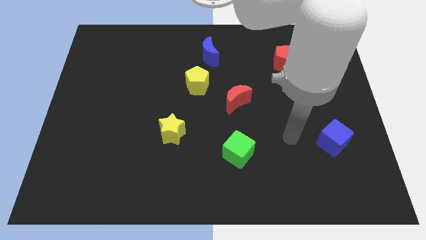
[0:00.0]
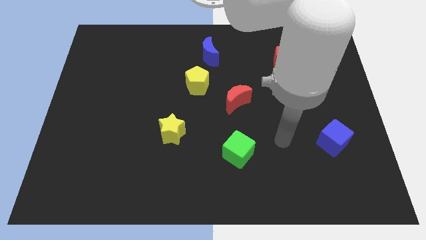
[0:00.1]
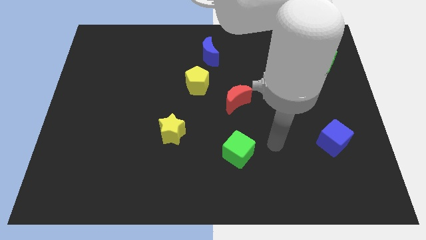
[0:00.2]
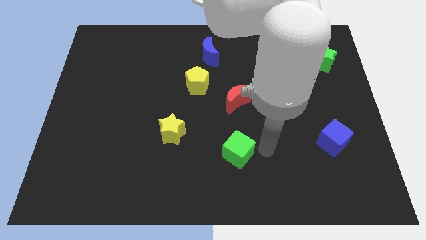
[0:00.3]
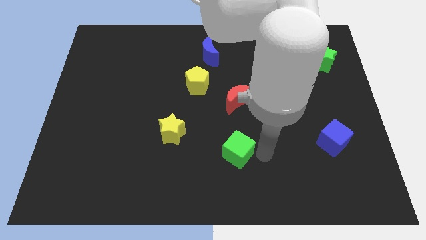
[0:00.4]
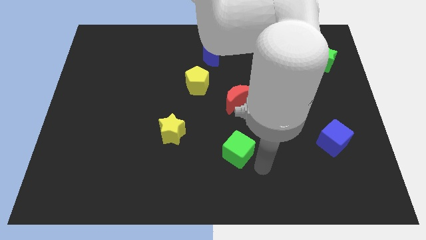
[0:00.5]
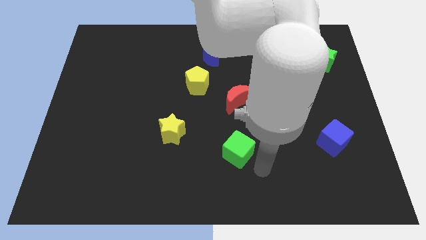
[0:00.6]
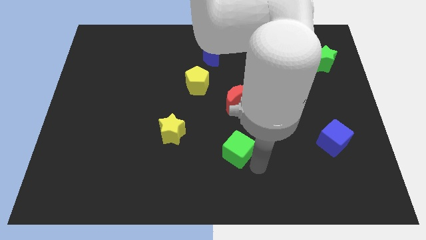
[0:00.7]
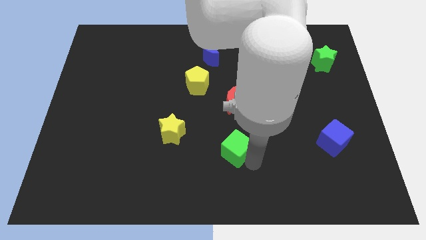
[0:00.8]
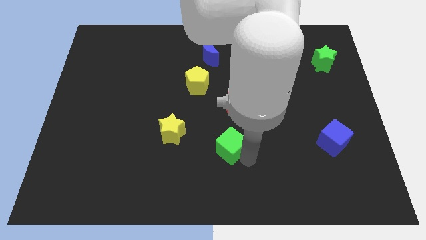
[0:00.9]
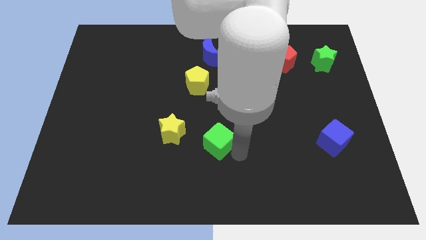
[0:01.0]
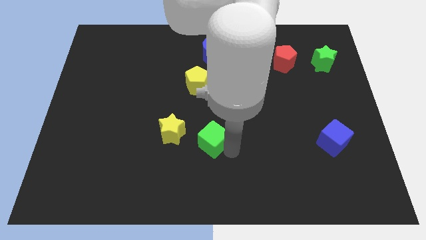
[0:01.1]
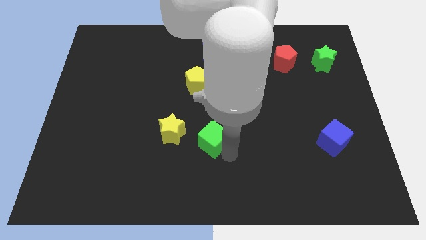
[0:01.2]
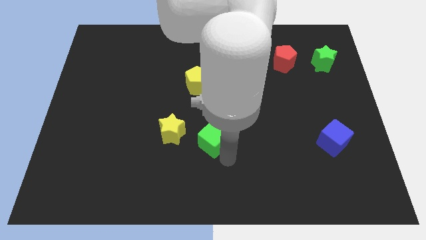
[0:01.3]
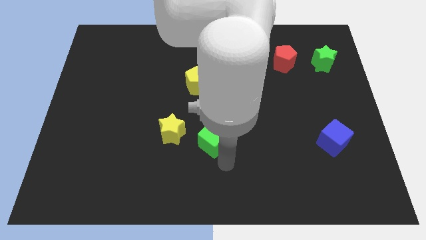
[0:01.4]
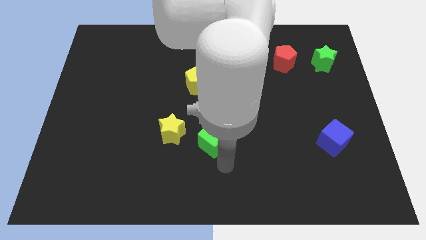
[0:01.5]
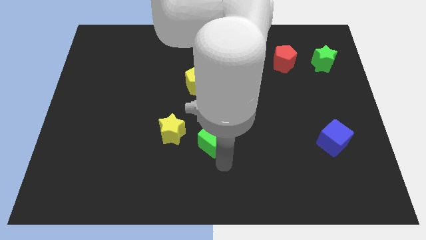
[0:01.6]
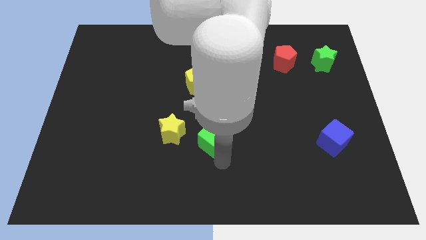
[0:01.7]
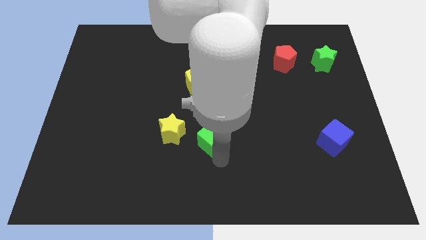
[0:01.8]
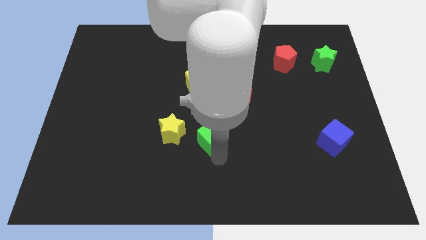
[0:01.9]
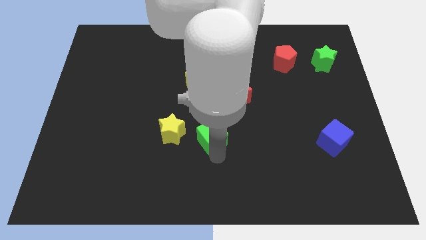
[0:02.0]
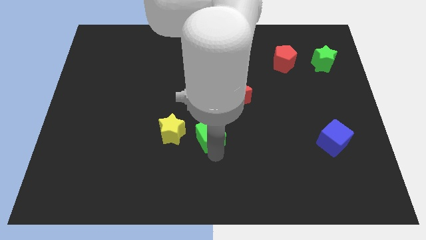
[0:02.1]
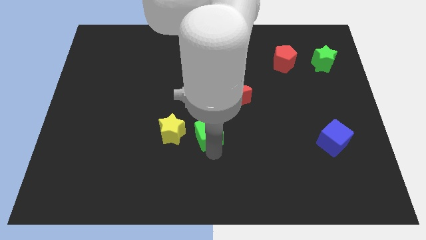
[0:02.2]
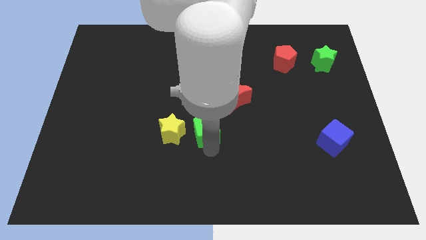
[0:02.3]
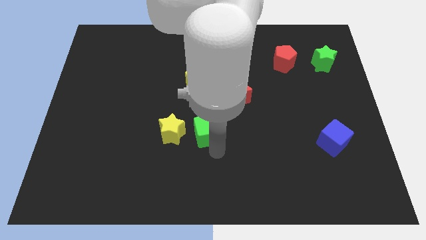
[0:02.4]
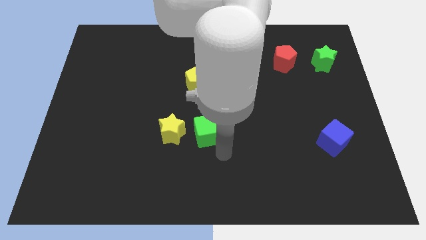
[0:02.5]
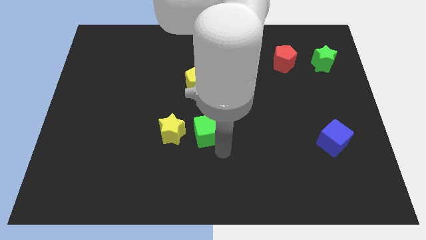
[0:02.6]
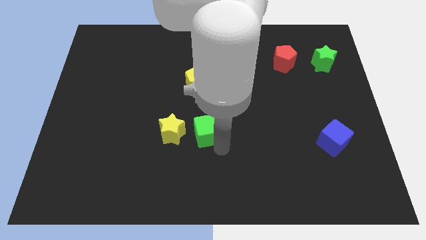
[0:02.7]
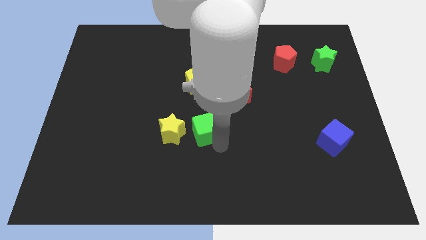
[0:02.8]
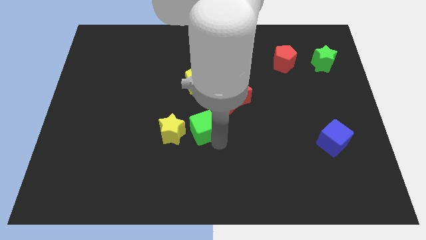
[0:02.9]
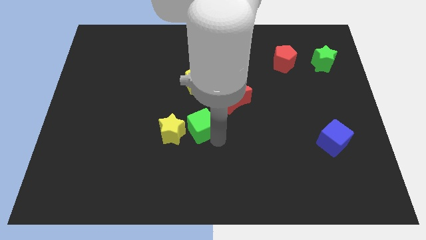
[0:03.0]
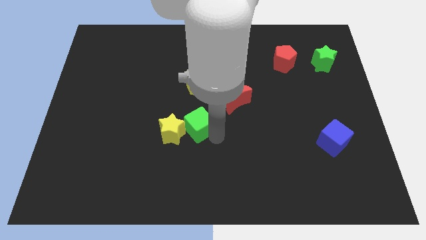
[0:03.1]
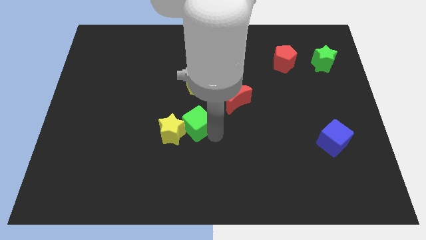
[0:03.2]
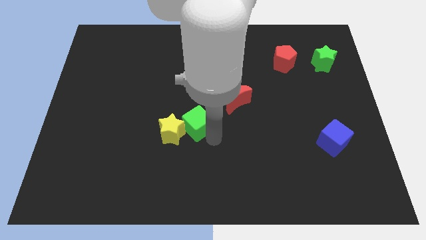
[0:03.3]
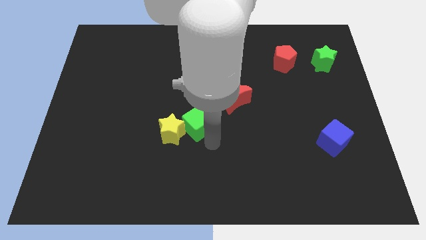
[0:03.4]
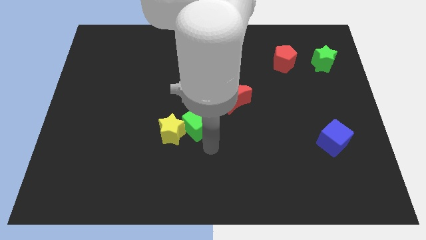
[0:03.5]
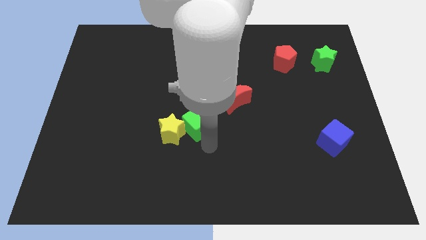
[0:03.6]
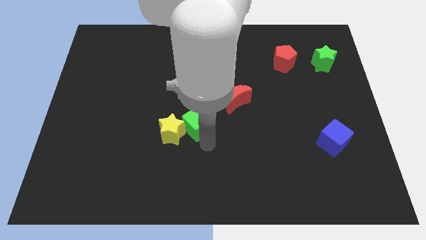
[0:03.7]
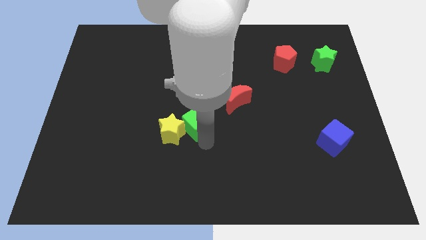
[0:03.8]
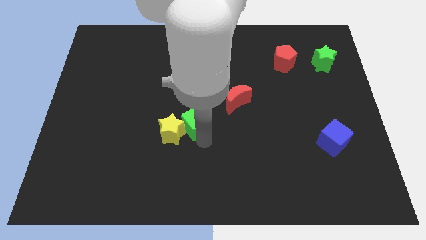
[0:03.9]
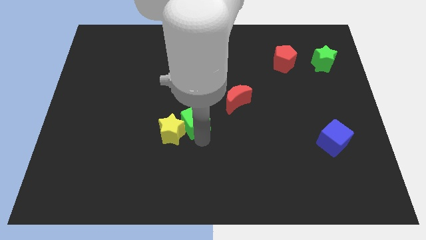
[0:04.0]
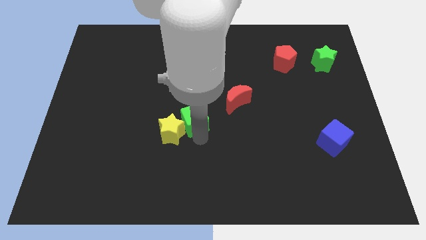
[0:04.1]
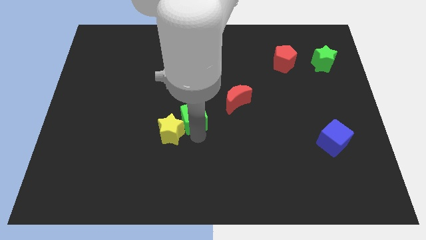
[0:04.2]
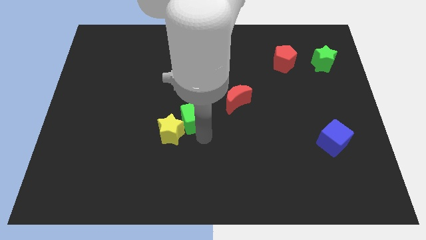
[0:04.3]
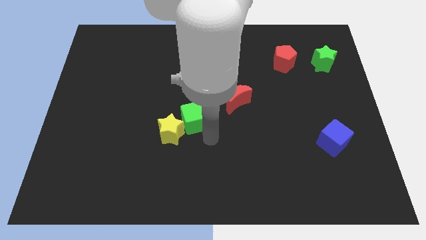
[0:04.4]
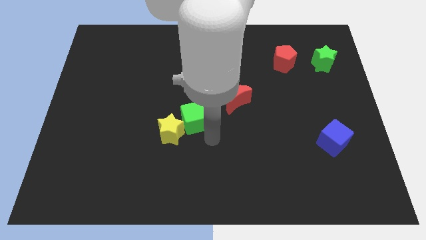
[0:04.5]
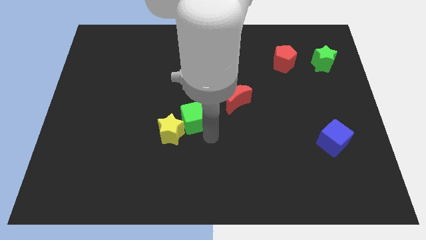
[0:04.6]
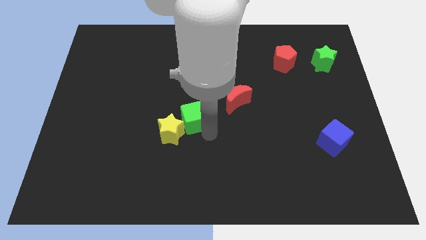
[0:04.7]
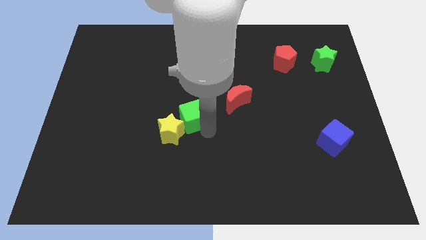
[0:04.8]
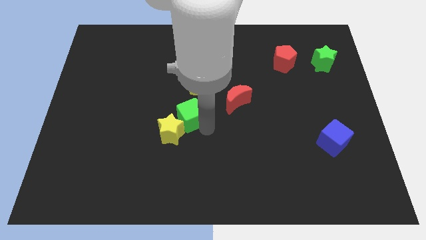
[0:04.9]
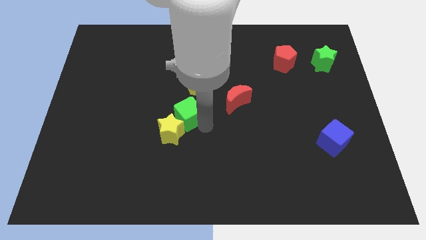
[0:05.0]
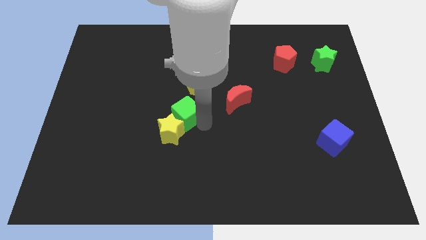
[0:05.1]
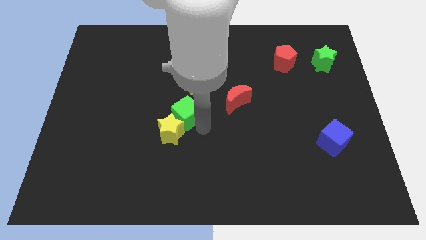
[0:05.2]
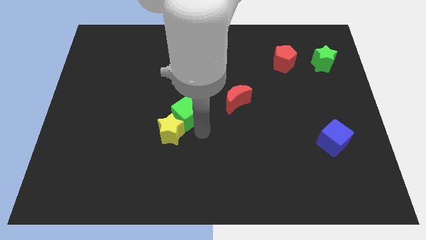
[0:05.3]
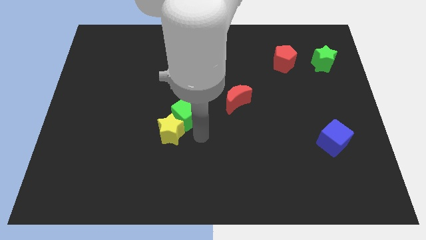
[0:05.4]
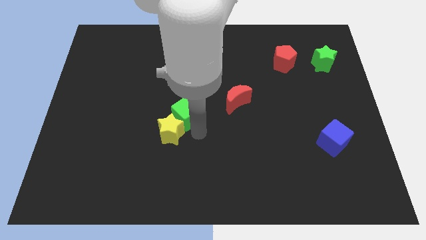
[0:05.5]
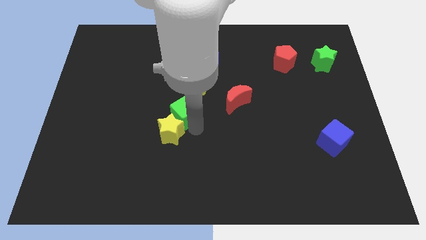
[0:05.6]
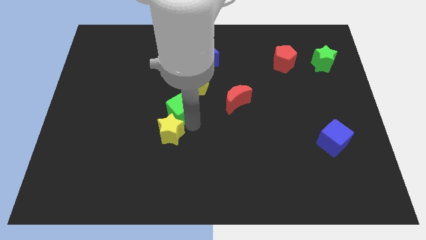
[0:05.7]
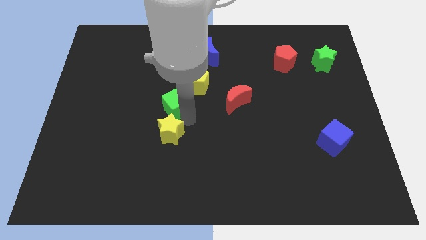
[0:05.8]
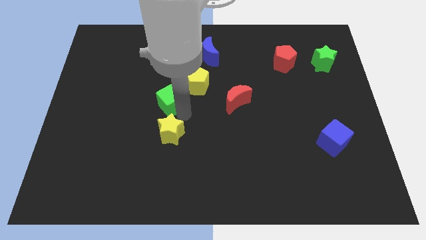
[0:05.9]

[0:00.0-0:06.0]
push the green cube upwards and left diagonally

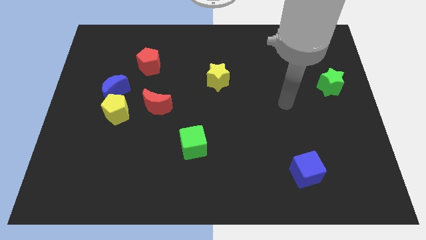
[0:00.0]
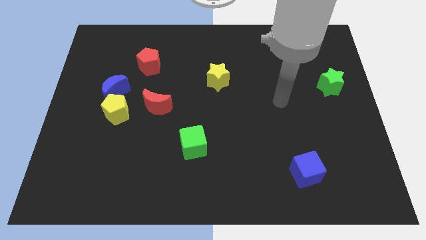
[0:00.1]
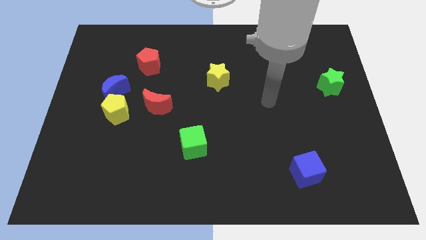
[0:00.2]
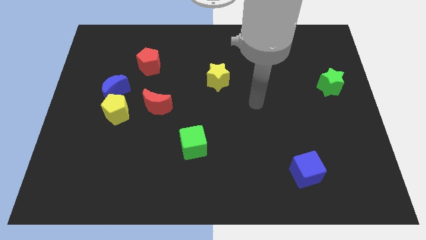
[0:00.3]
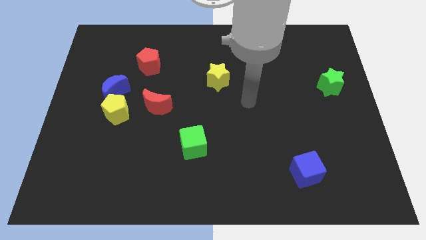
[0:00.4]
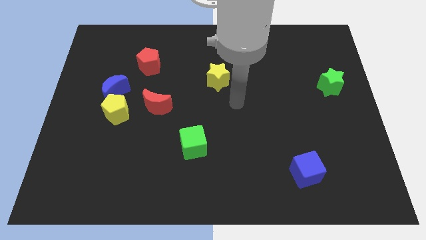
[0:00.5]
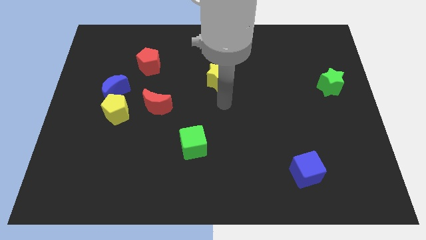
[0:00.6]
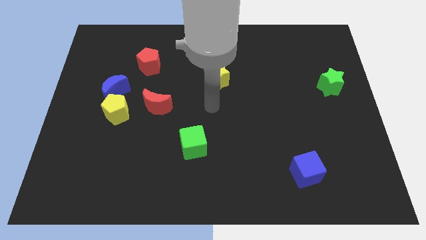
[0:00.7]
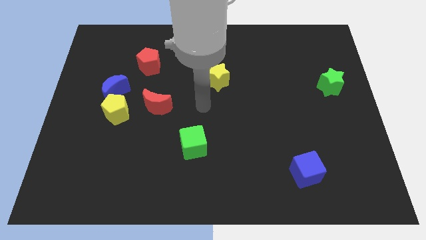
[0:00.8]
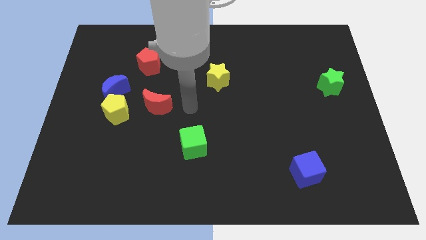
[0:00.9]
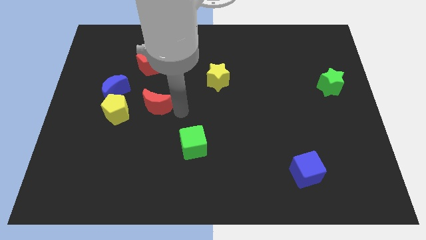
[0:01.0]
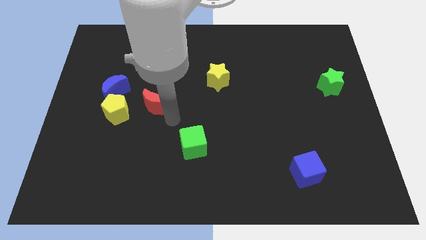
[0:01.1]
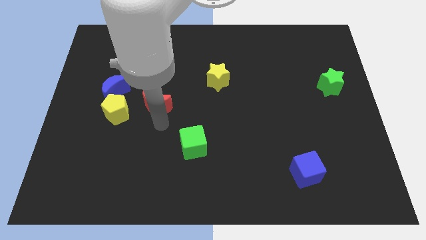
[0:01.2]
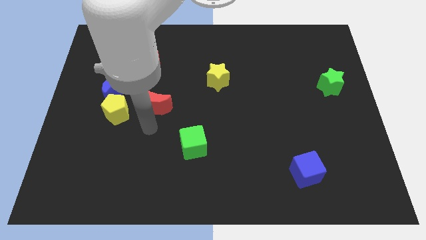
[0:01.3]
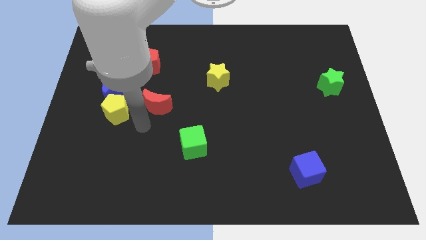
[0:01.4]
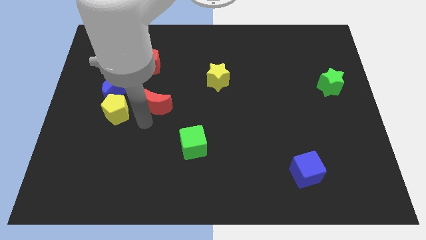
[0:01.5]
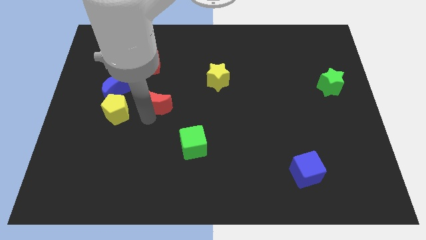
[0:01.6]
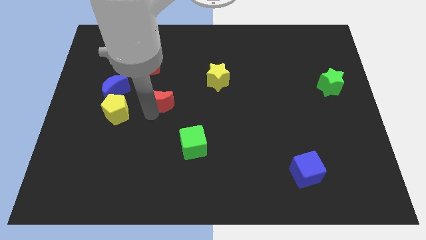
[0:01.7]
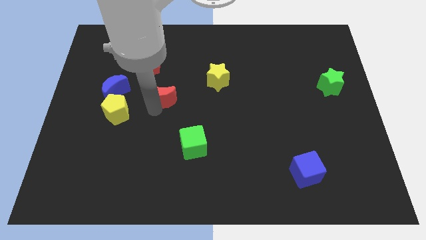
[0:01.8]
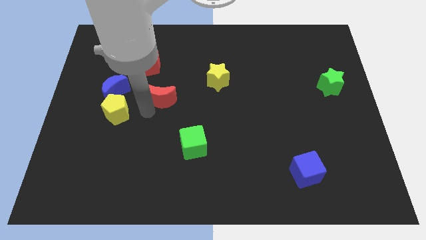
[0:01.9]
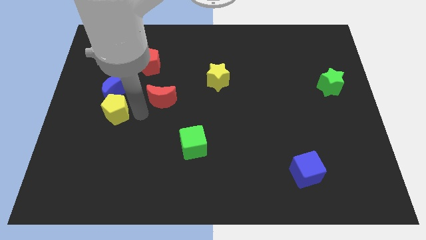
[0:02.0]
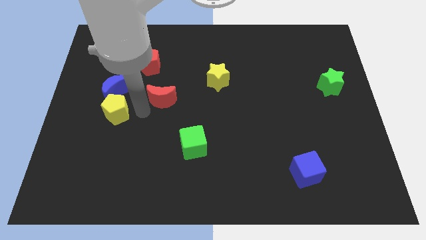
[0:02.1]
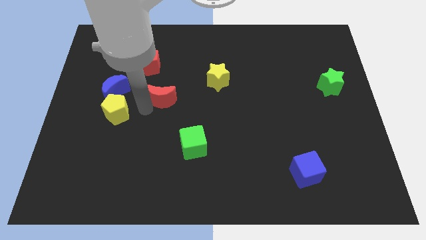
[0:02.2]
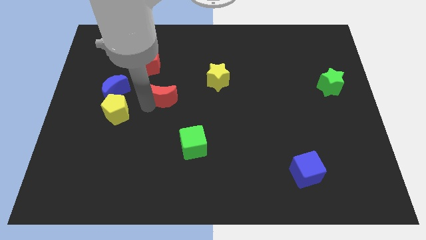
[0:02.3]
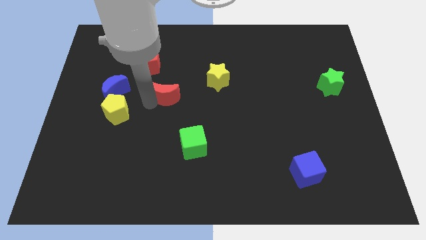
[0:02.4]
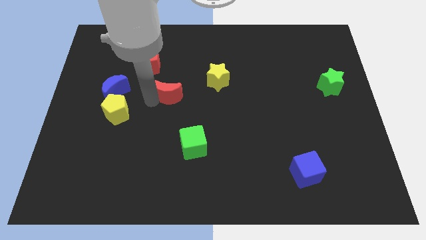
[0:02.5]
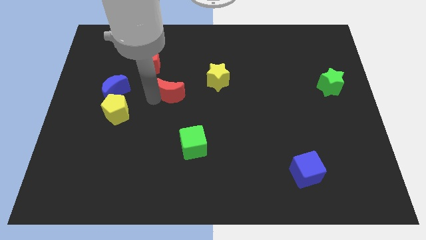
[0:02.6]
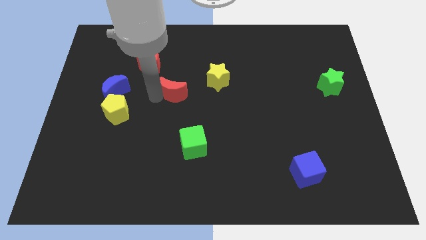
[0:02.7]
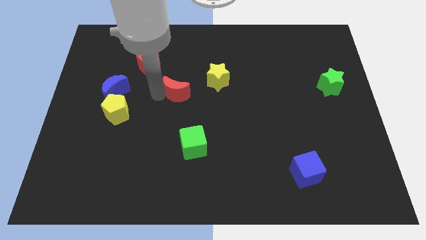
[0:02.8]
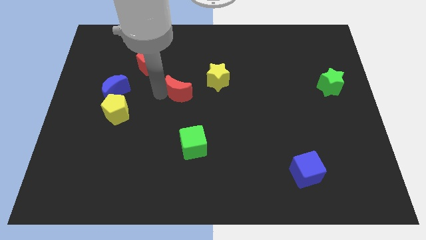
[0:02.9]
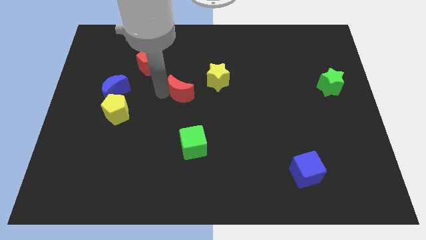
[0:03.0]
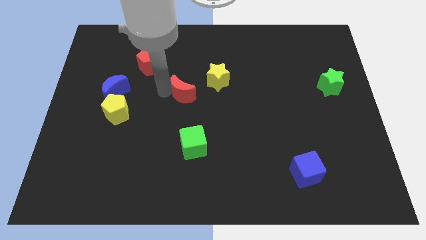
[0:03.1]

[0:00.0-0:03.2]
move the red moon somewhat up and right diagonally
